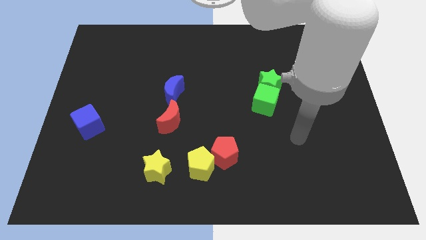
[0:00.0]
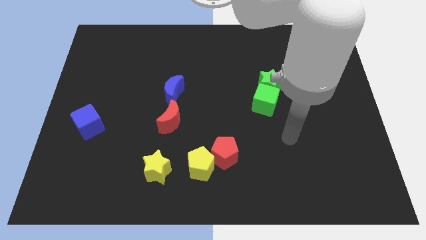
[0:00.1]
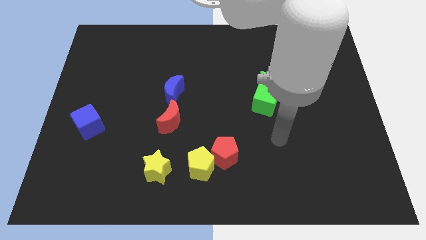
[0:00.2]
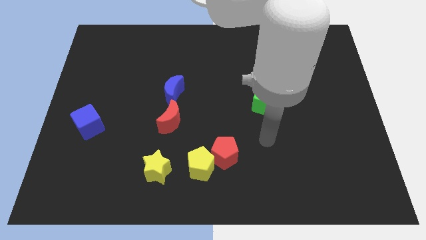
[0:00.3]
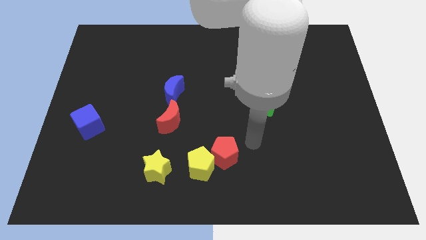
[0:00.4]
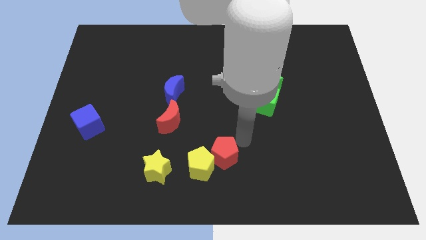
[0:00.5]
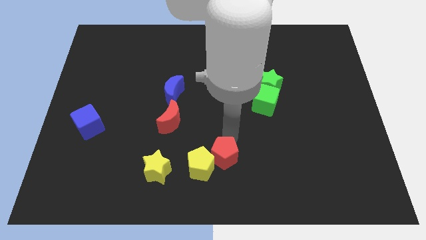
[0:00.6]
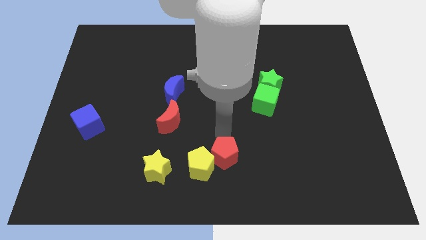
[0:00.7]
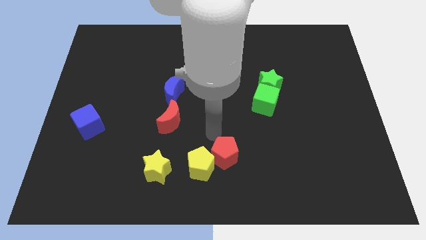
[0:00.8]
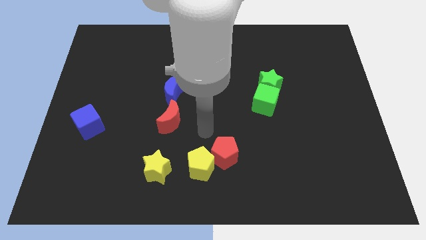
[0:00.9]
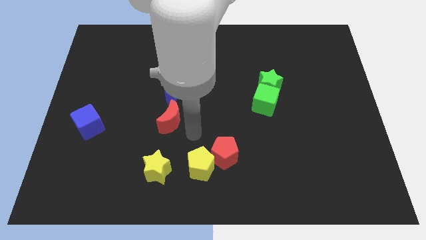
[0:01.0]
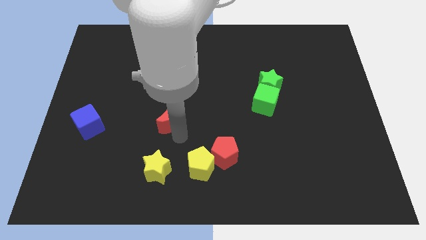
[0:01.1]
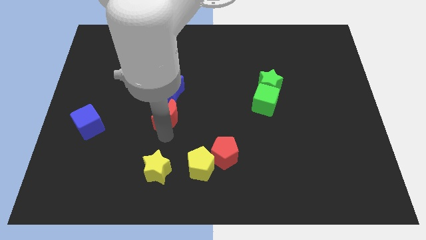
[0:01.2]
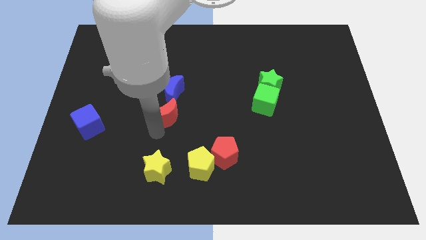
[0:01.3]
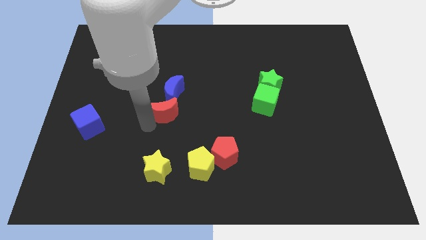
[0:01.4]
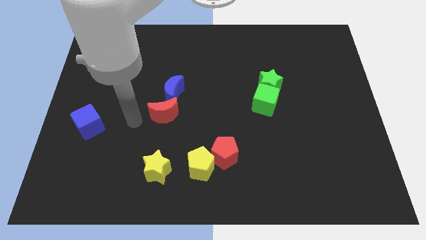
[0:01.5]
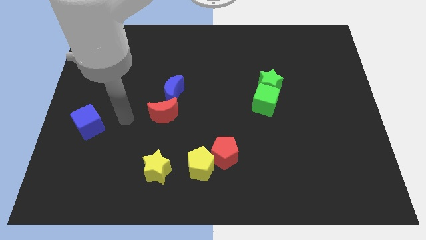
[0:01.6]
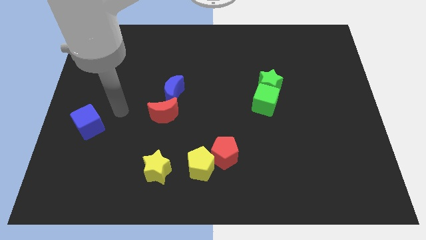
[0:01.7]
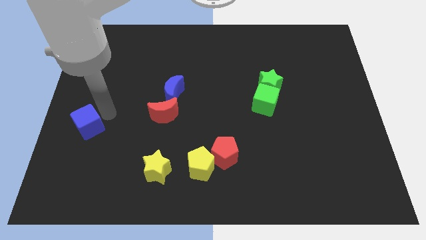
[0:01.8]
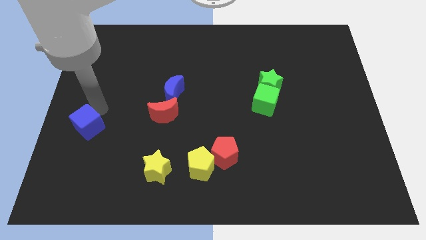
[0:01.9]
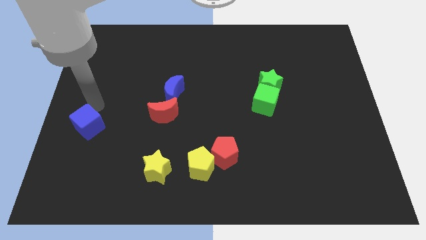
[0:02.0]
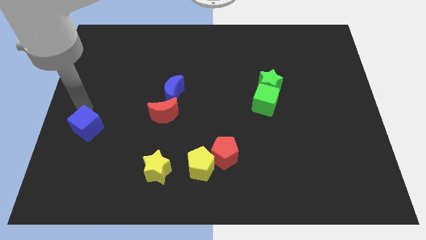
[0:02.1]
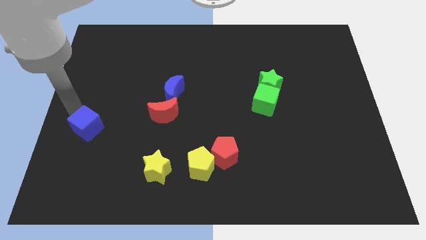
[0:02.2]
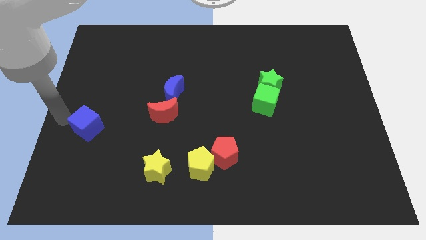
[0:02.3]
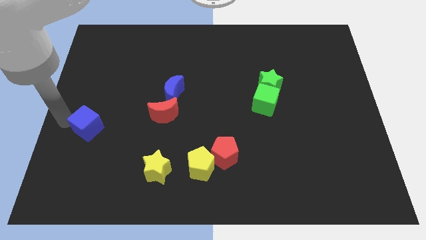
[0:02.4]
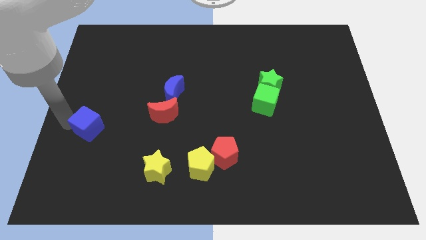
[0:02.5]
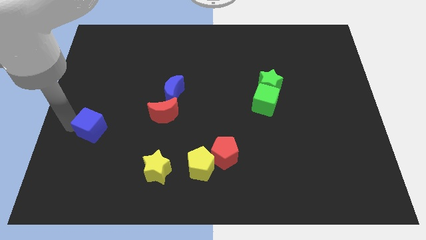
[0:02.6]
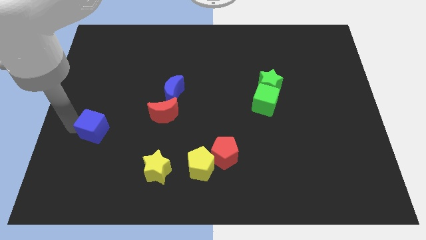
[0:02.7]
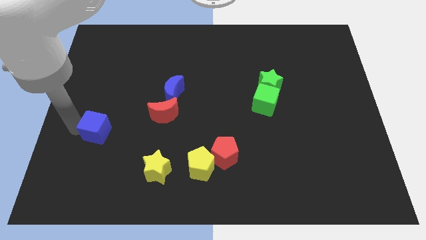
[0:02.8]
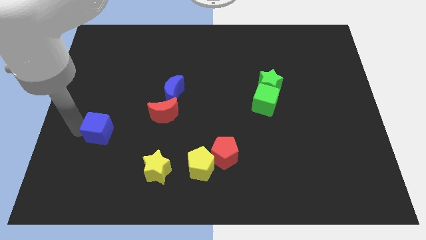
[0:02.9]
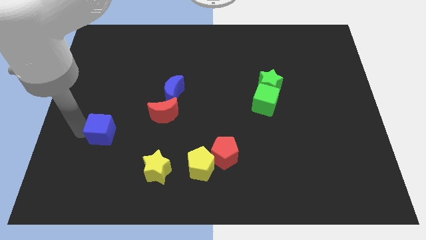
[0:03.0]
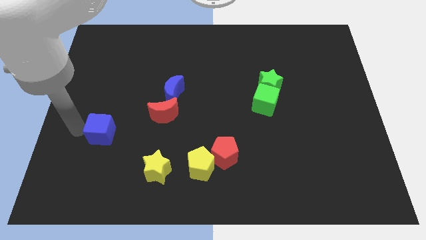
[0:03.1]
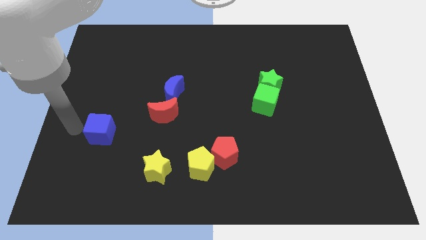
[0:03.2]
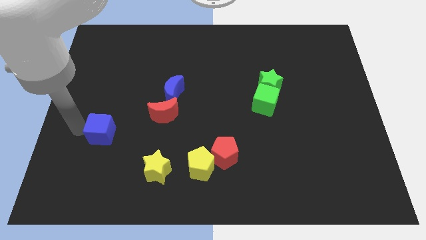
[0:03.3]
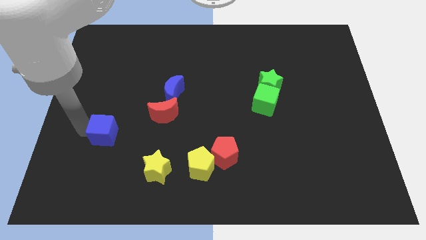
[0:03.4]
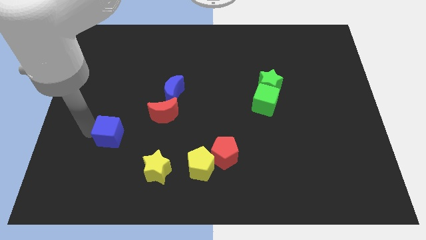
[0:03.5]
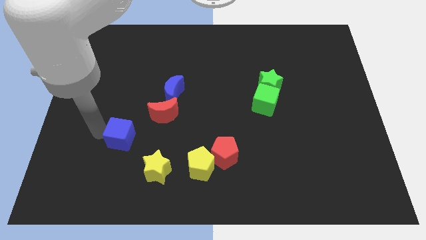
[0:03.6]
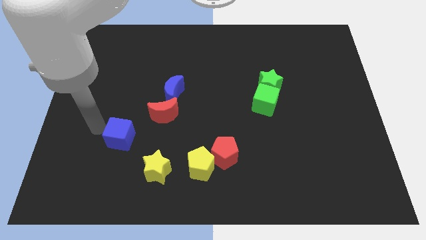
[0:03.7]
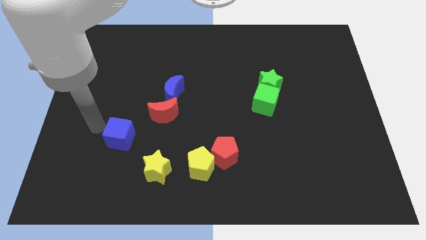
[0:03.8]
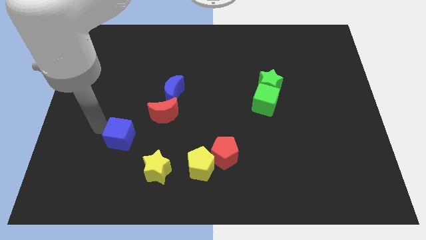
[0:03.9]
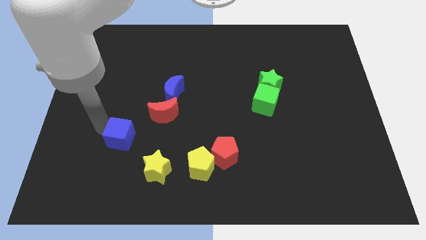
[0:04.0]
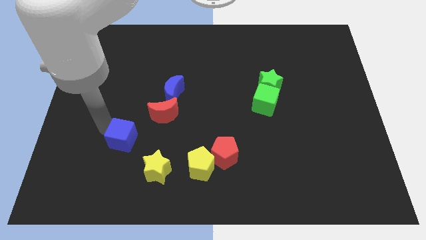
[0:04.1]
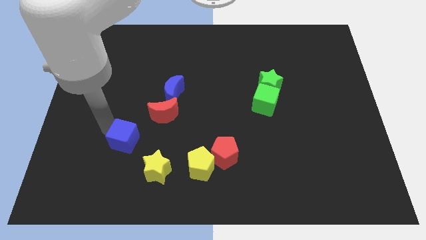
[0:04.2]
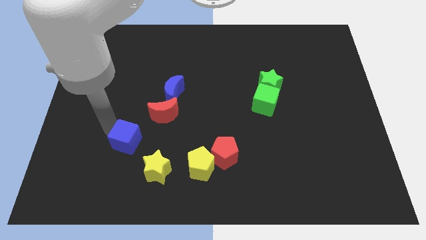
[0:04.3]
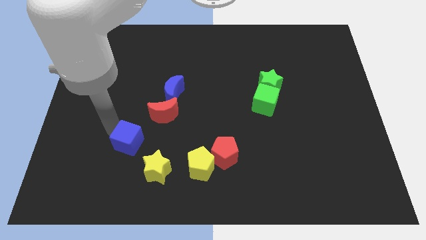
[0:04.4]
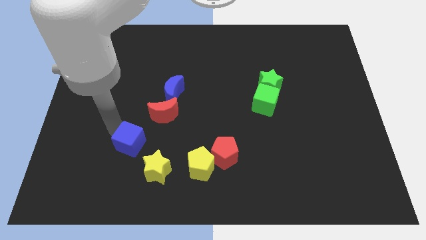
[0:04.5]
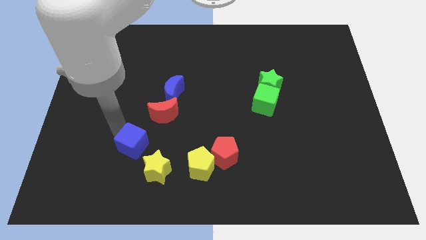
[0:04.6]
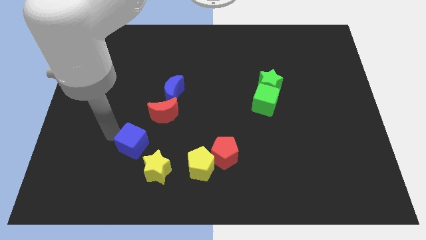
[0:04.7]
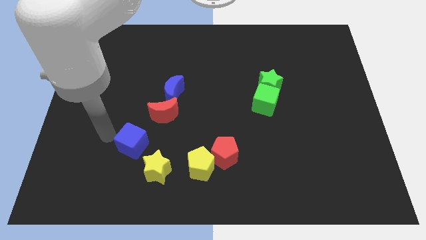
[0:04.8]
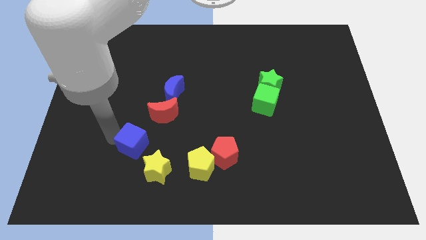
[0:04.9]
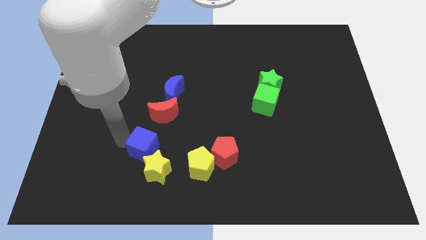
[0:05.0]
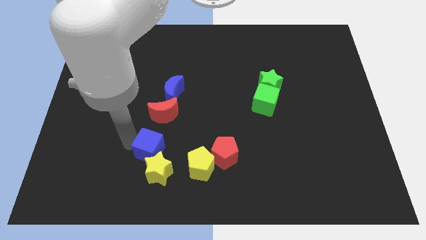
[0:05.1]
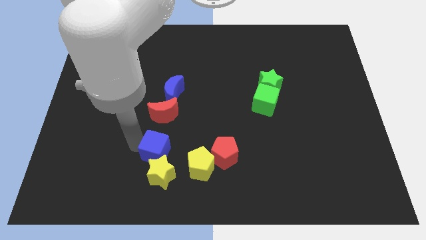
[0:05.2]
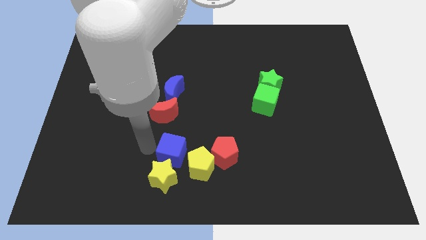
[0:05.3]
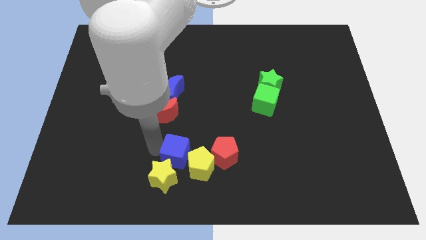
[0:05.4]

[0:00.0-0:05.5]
move the blue cube towards the yellow pentagon

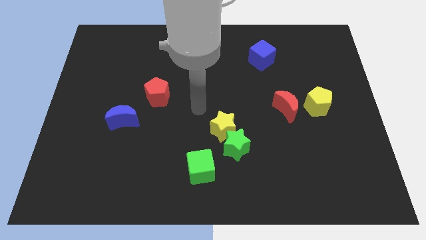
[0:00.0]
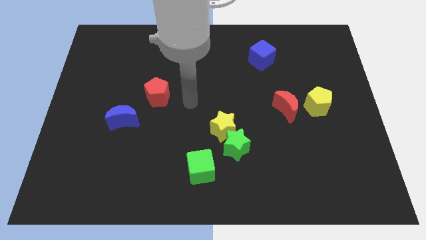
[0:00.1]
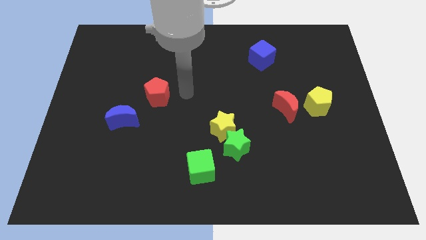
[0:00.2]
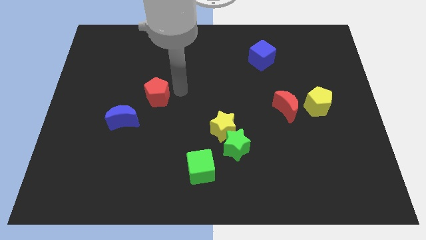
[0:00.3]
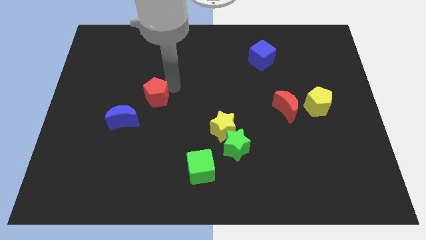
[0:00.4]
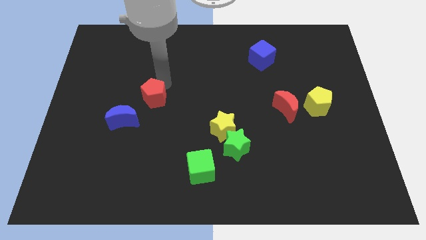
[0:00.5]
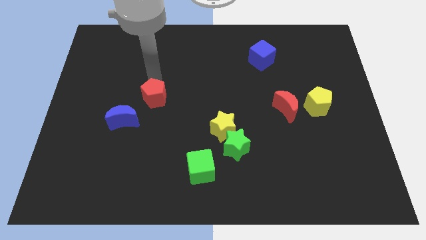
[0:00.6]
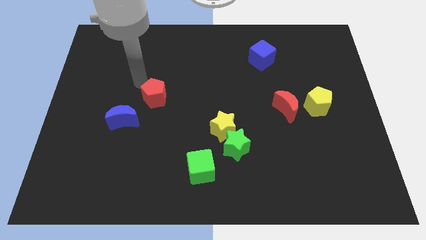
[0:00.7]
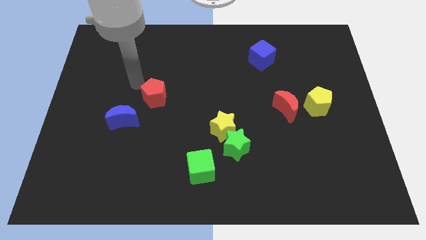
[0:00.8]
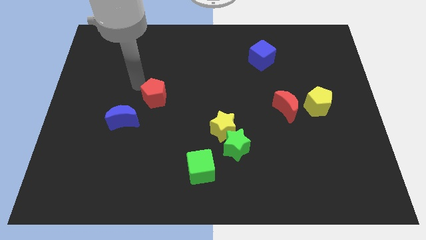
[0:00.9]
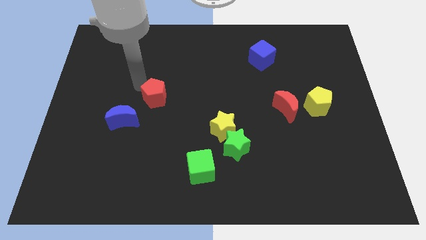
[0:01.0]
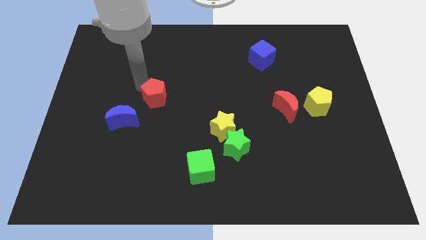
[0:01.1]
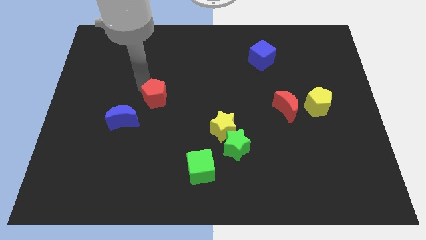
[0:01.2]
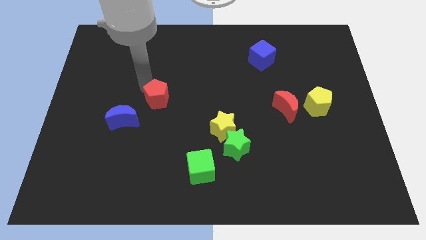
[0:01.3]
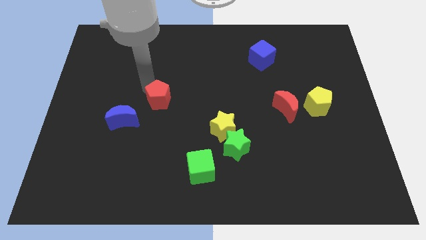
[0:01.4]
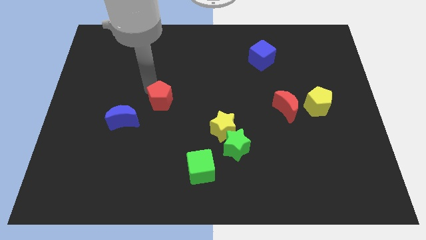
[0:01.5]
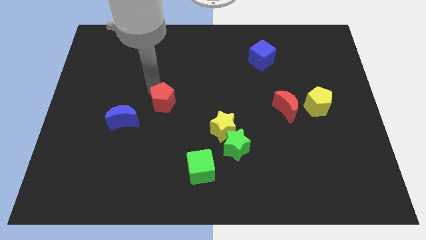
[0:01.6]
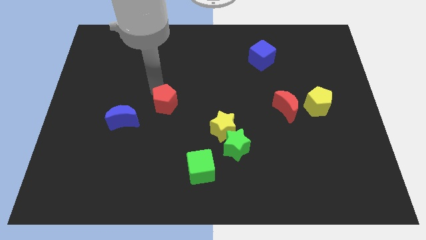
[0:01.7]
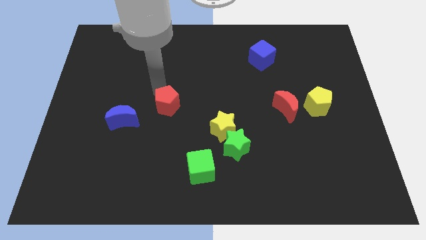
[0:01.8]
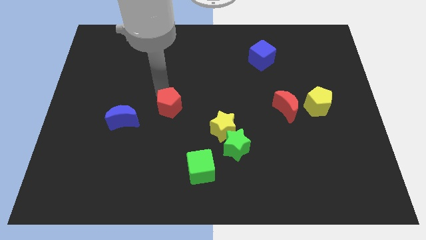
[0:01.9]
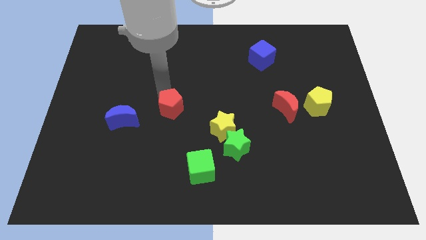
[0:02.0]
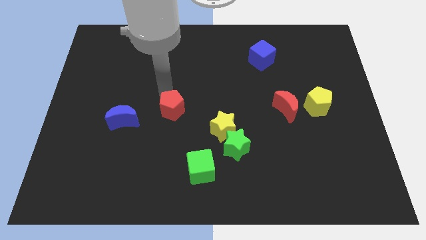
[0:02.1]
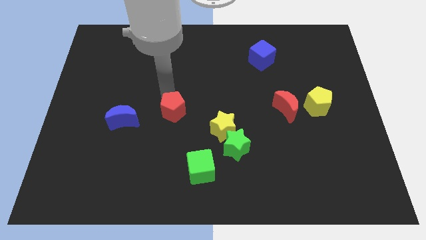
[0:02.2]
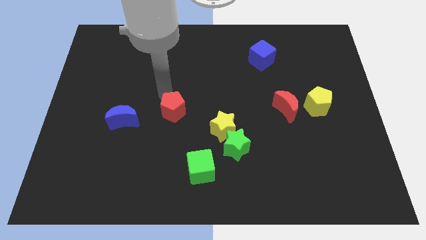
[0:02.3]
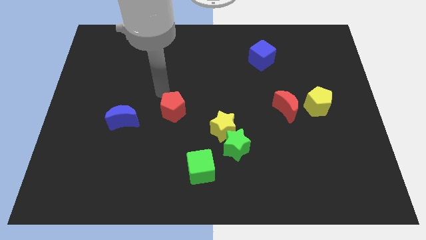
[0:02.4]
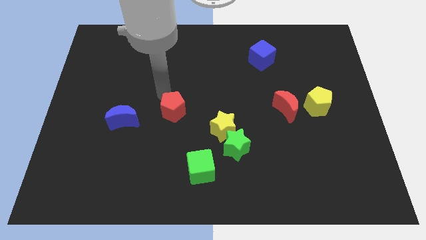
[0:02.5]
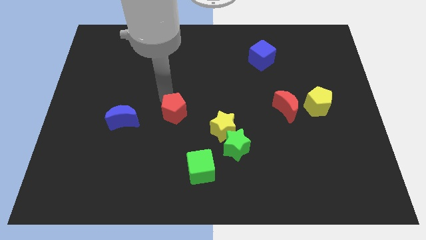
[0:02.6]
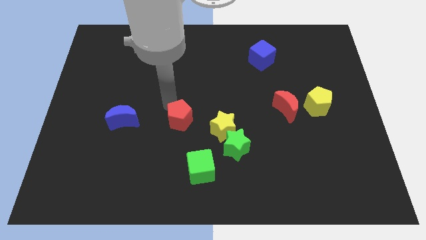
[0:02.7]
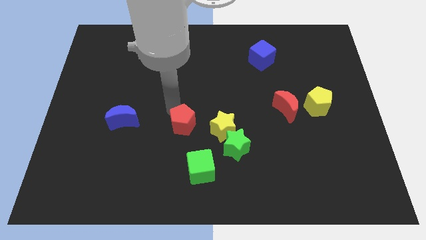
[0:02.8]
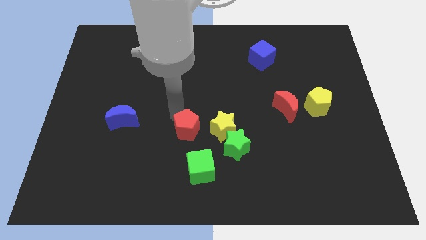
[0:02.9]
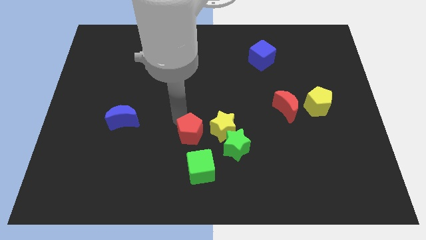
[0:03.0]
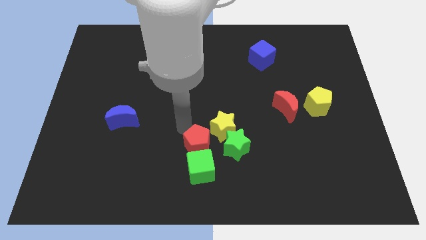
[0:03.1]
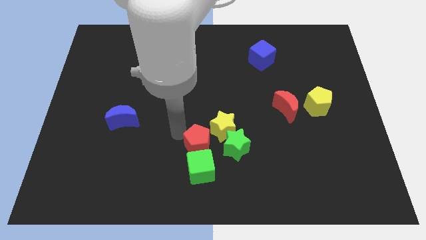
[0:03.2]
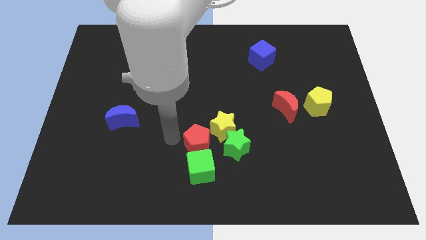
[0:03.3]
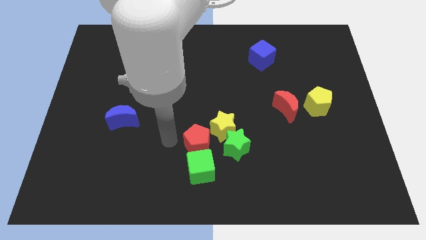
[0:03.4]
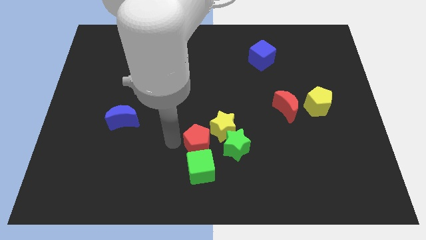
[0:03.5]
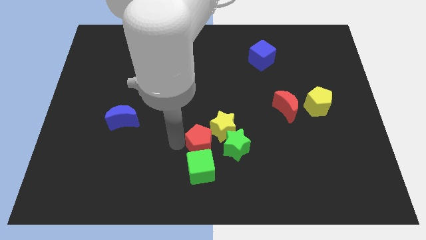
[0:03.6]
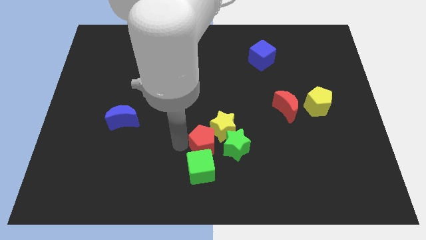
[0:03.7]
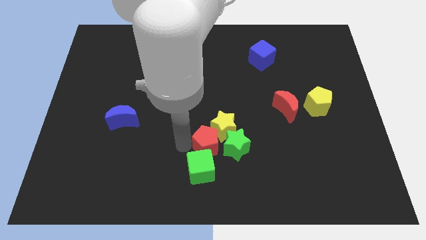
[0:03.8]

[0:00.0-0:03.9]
move the red pentagon to the green star
